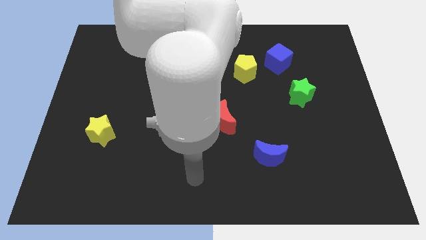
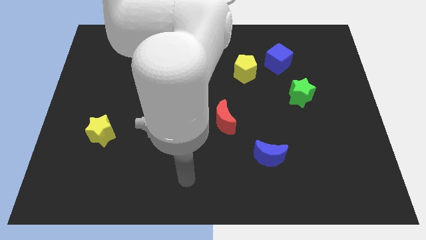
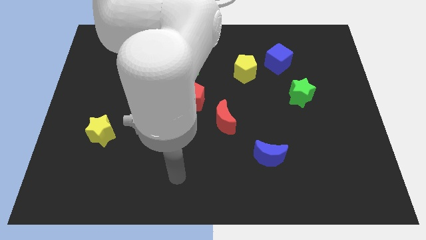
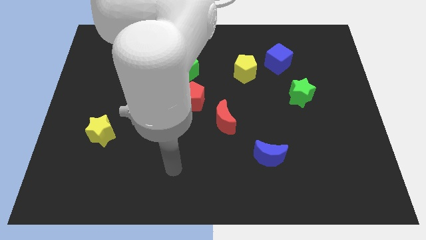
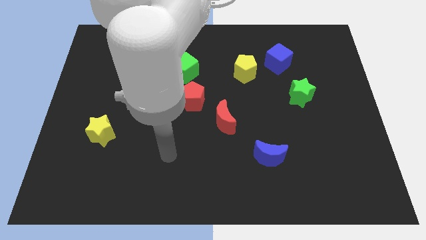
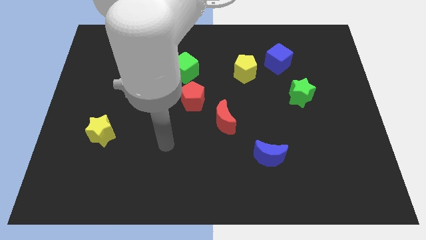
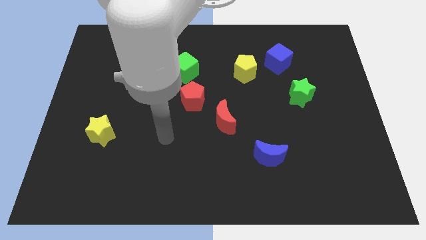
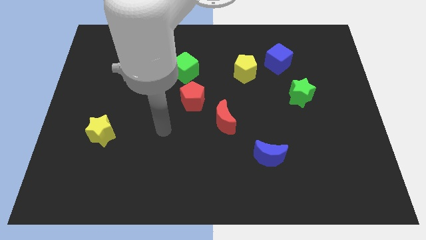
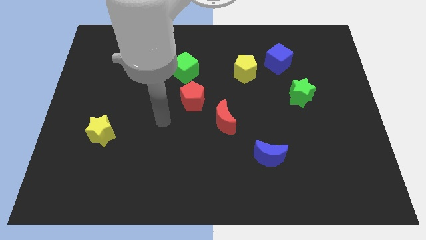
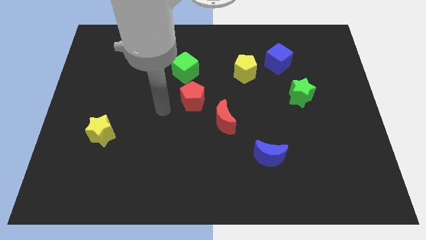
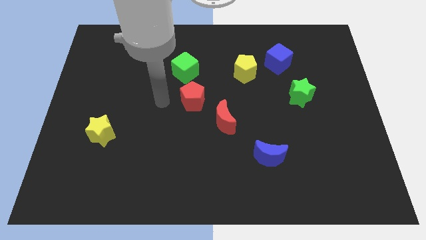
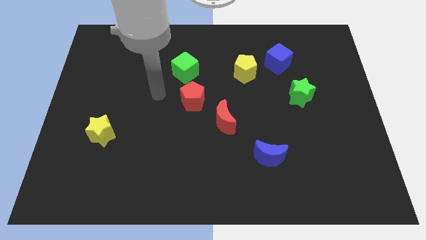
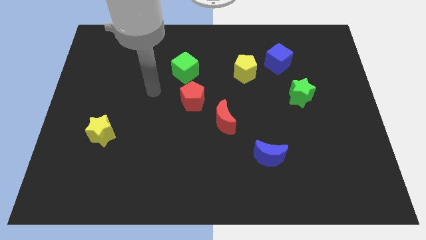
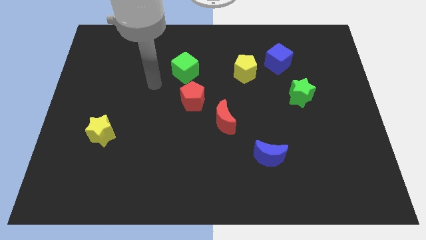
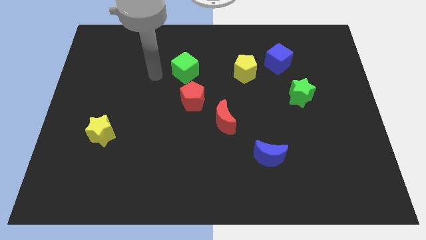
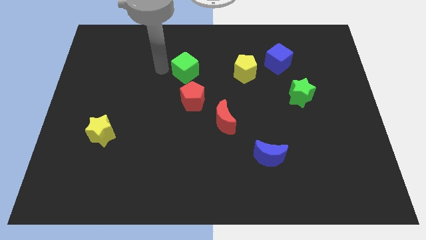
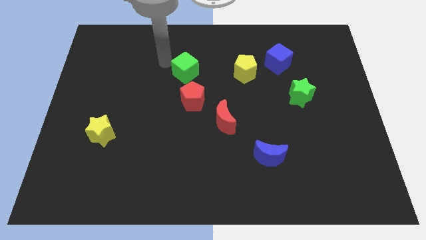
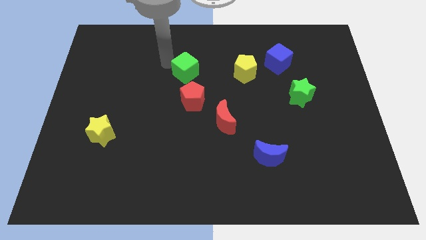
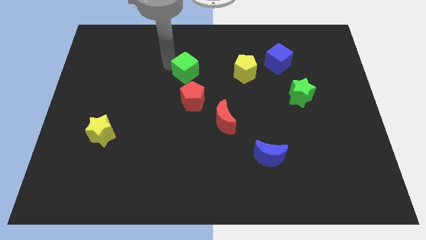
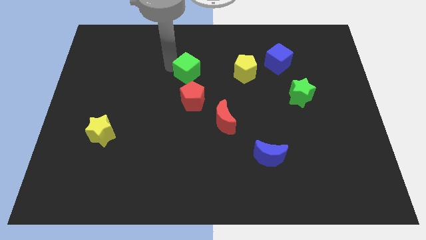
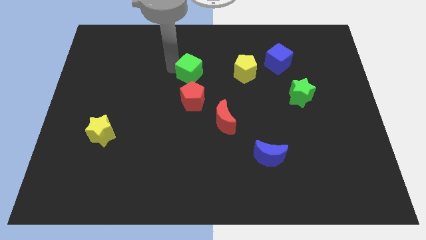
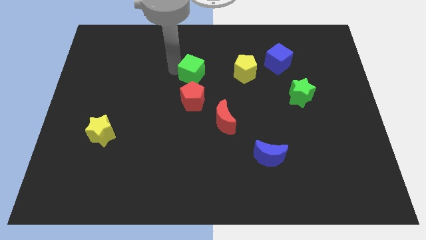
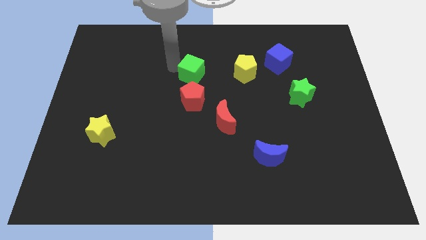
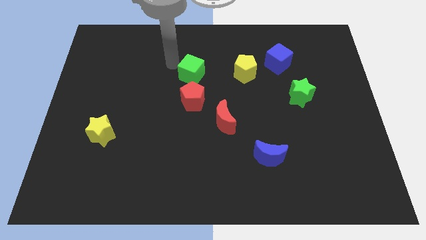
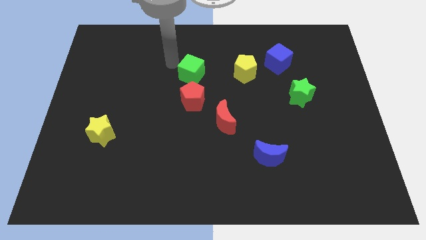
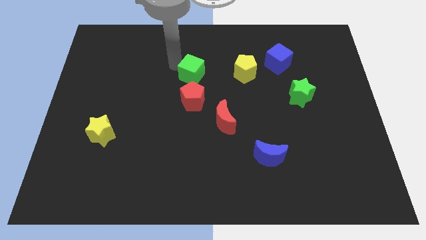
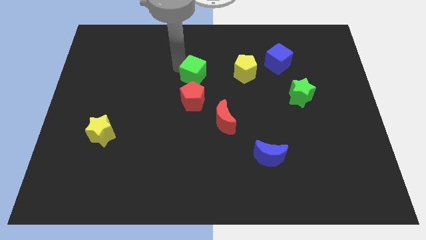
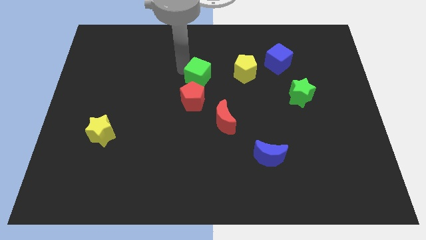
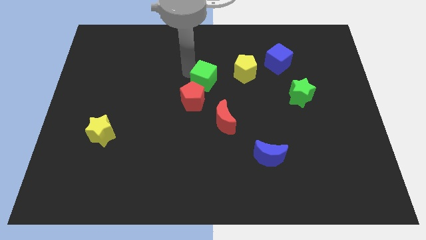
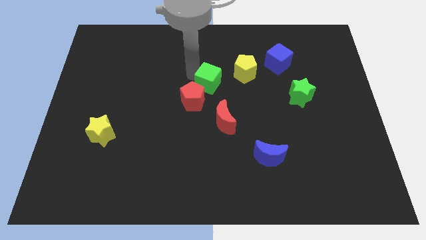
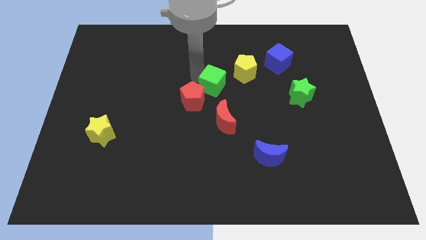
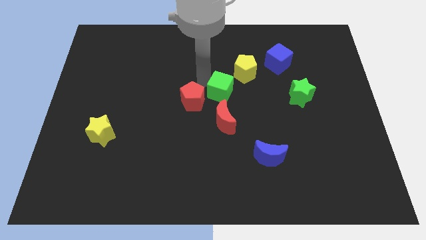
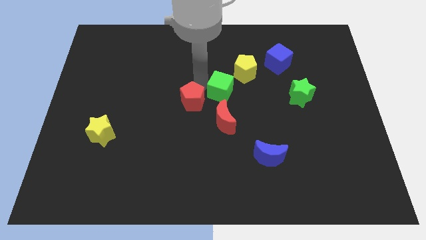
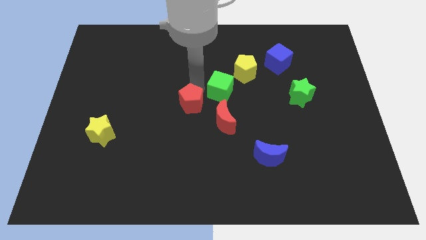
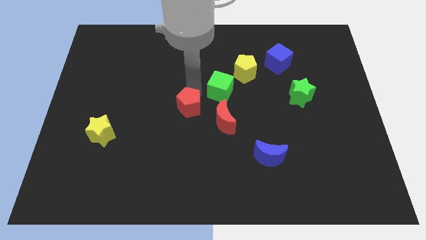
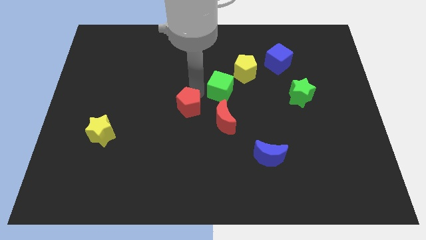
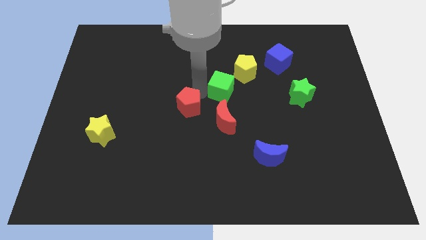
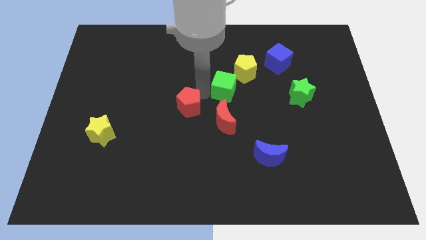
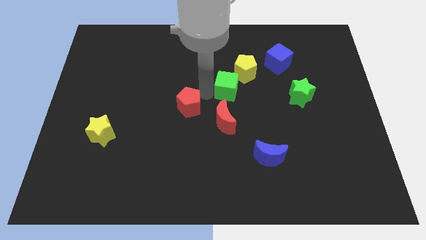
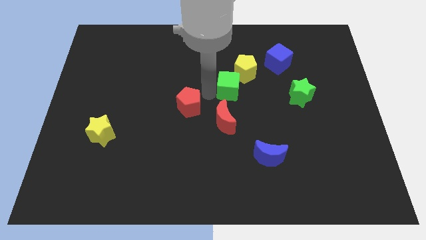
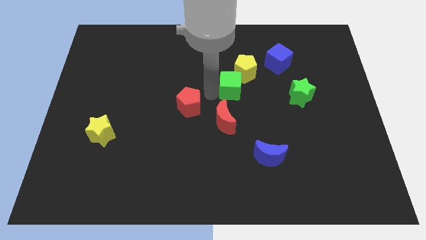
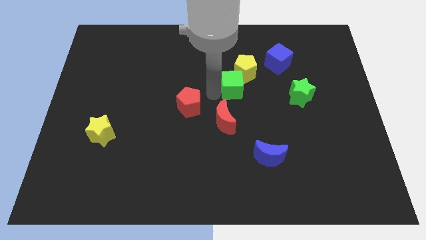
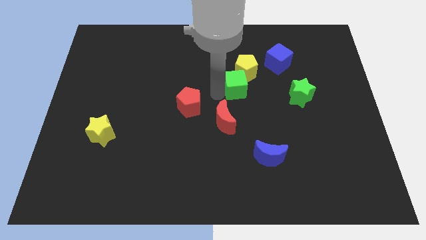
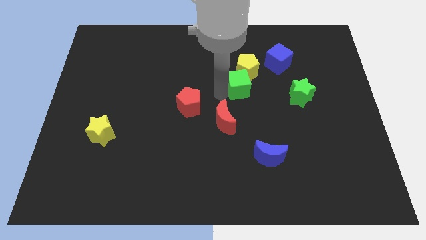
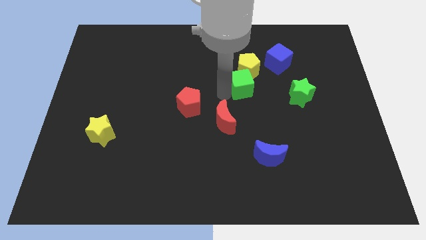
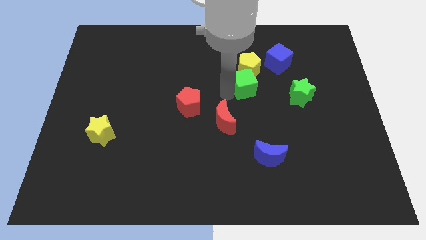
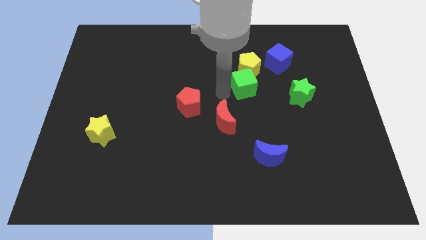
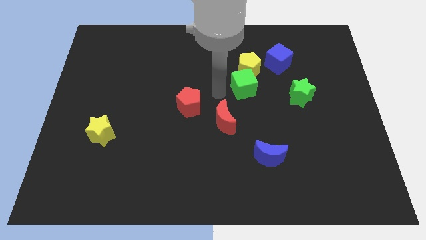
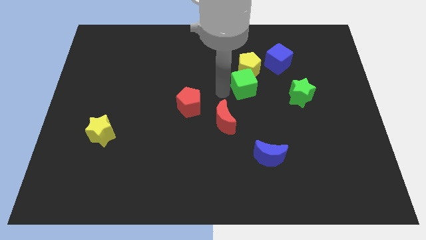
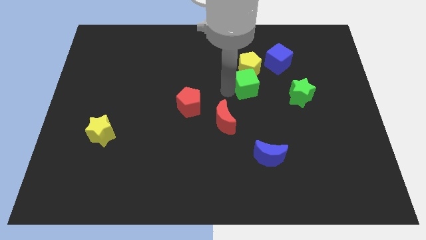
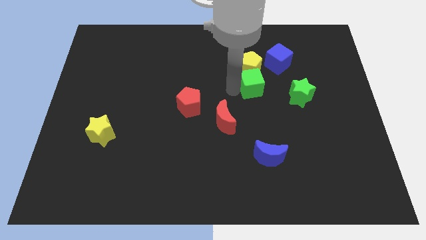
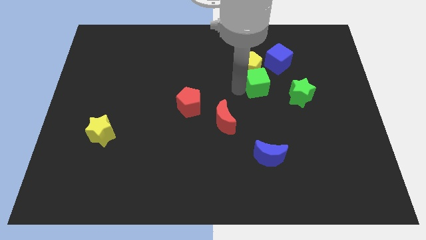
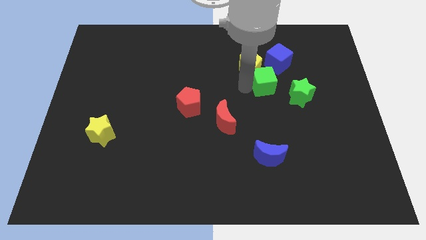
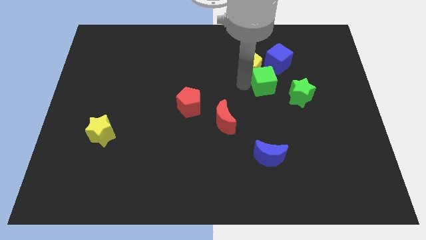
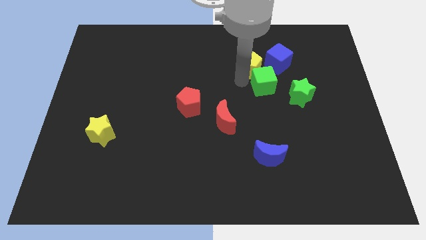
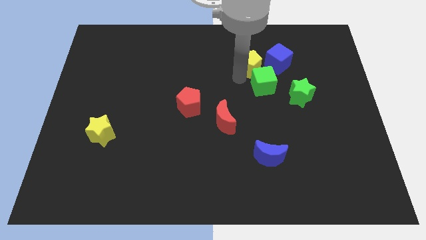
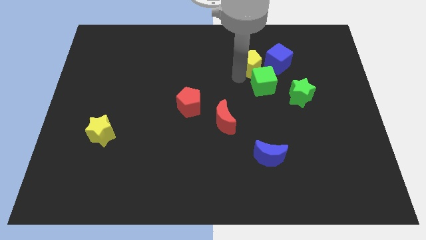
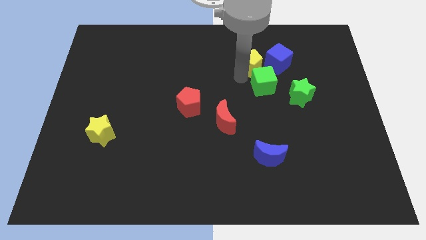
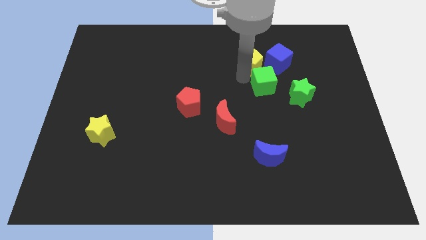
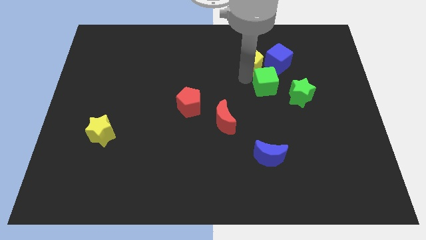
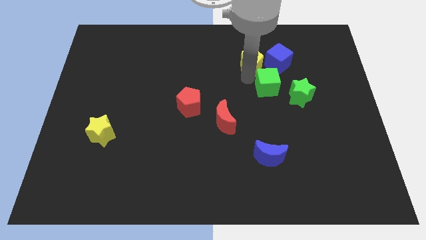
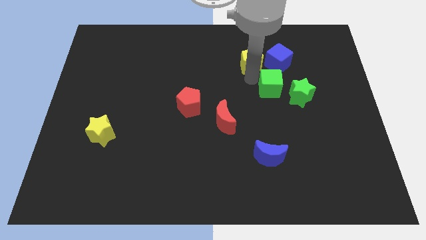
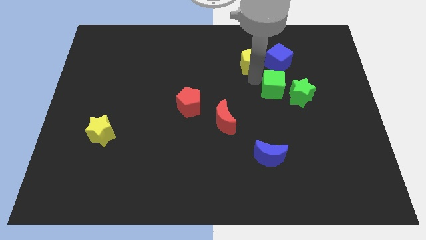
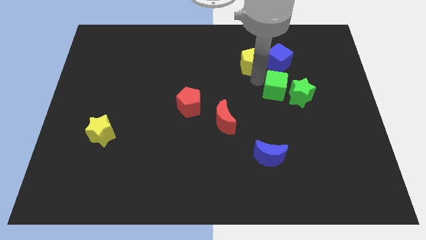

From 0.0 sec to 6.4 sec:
put the green cube towards the green star

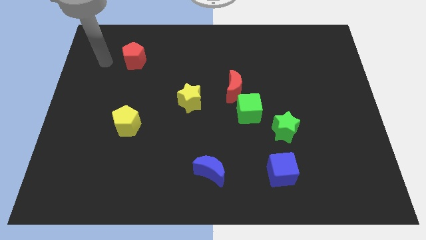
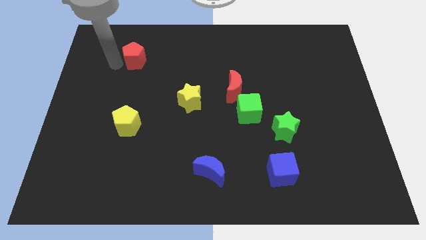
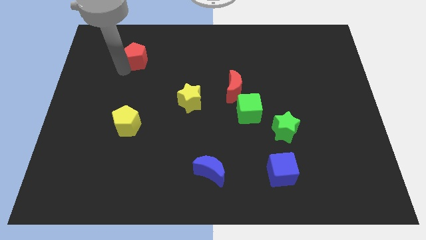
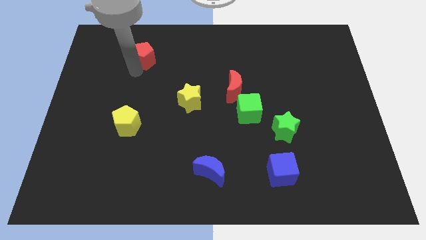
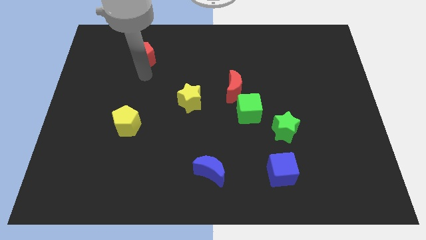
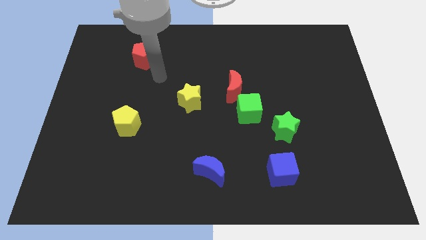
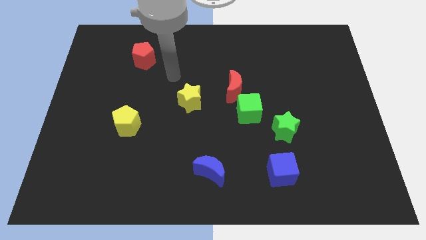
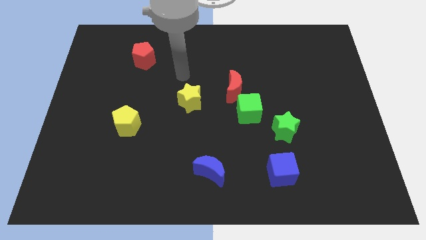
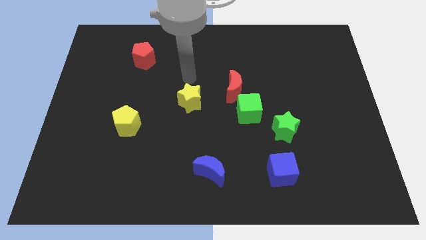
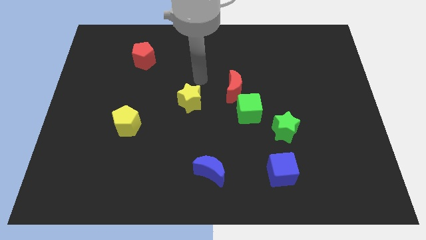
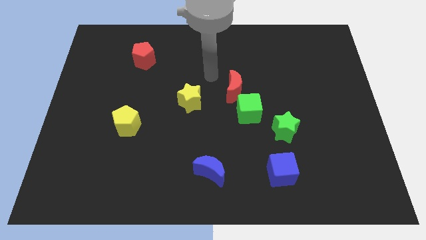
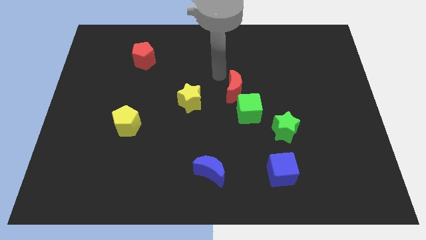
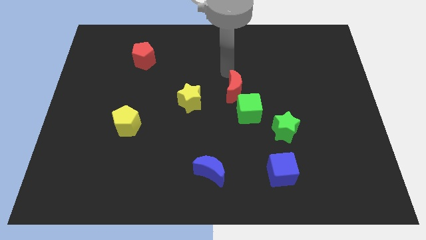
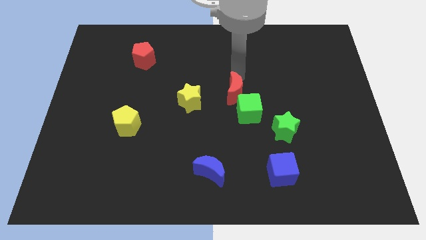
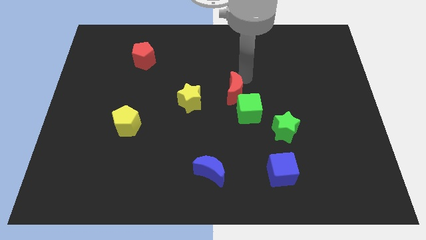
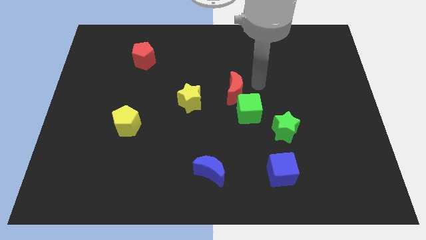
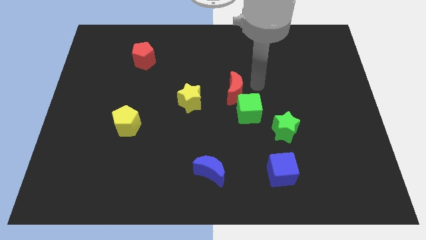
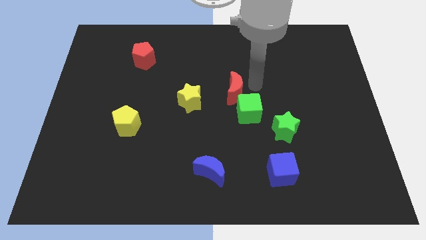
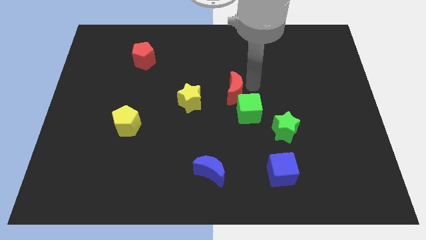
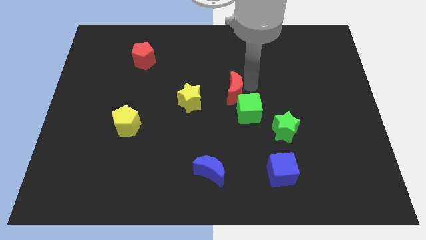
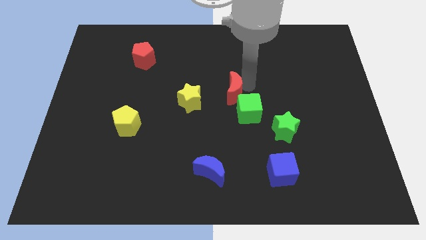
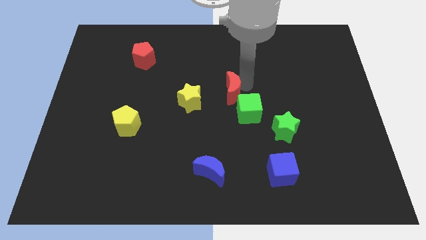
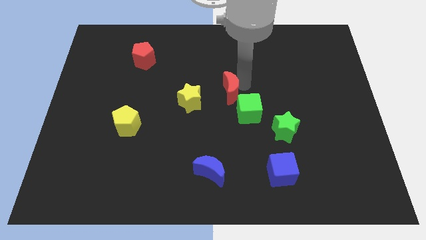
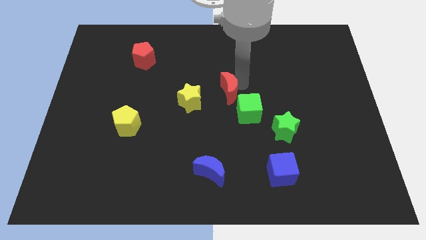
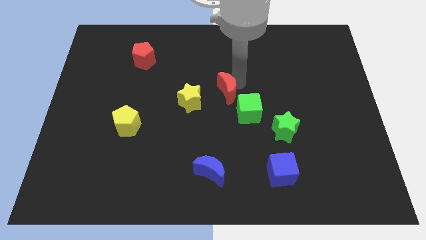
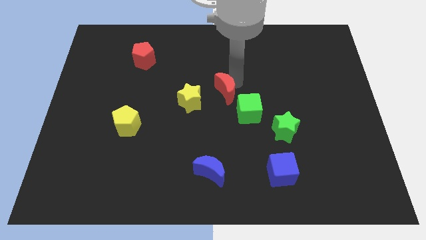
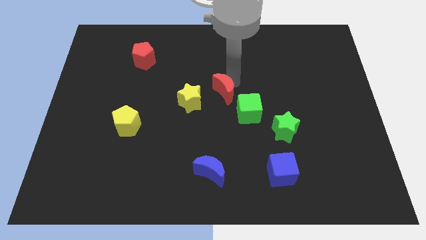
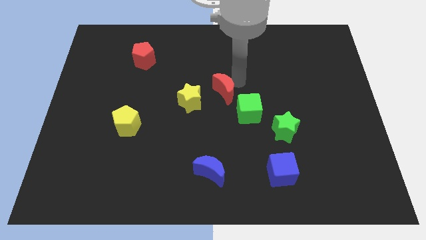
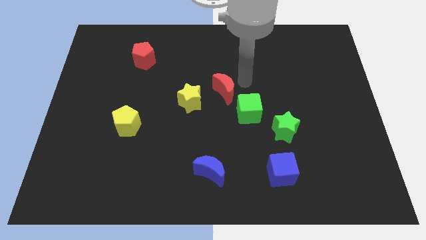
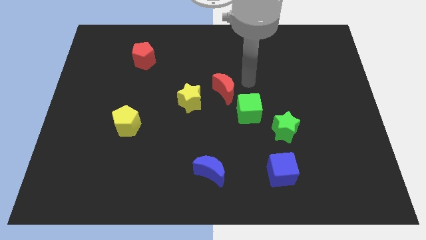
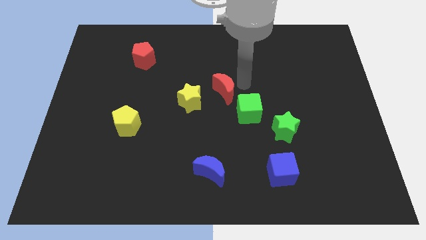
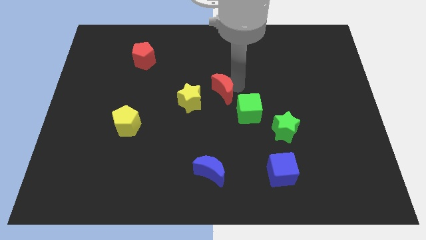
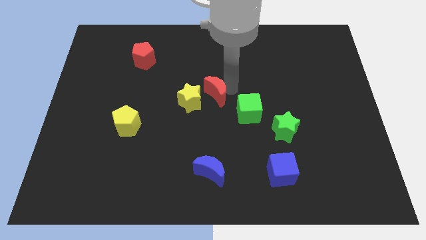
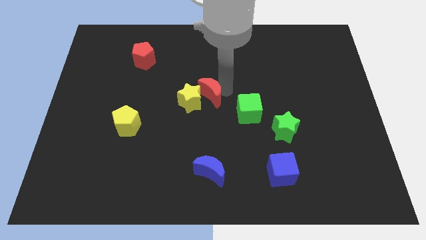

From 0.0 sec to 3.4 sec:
push the red moon next to the yellow star
